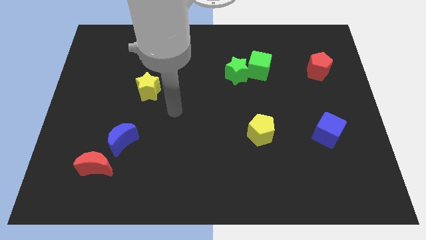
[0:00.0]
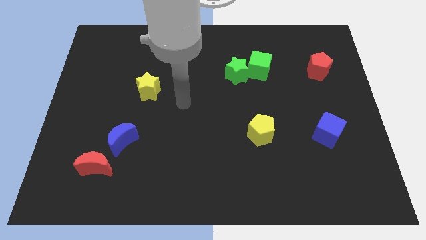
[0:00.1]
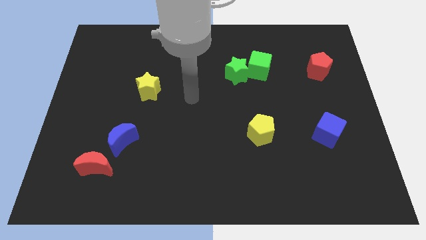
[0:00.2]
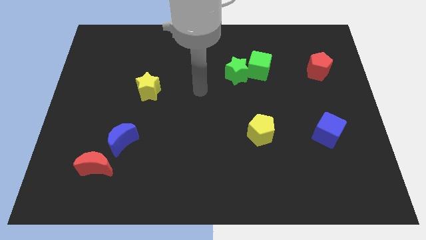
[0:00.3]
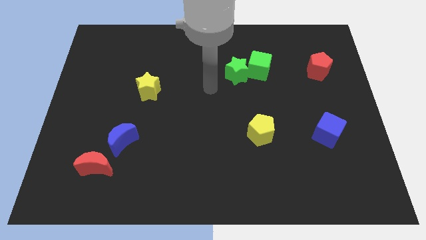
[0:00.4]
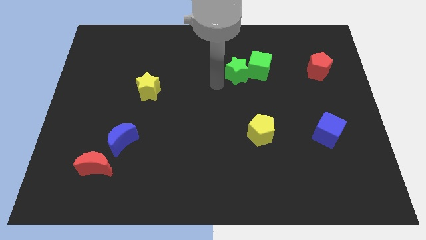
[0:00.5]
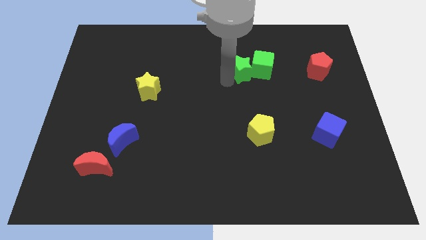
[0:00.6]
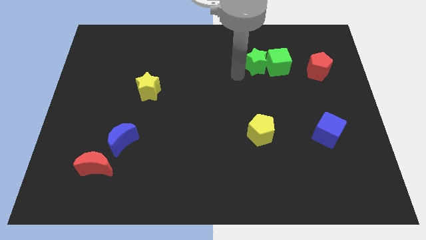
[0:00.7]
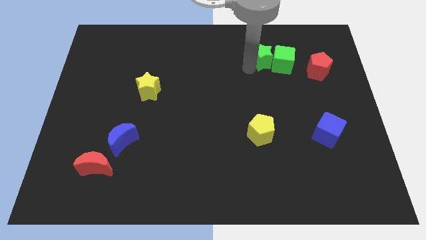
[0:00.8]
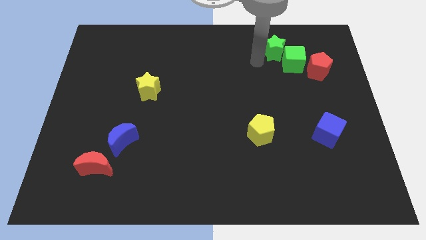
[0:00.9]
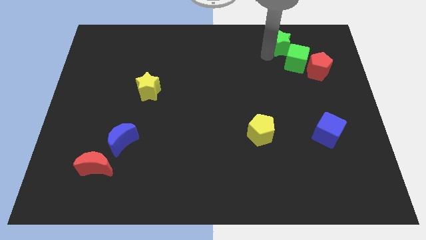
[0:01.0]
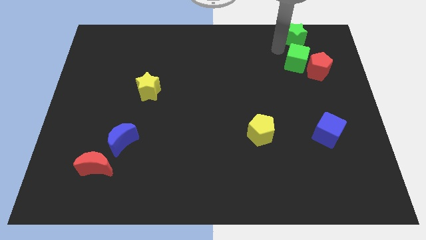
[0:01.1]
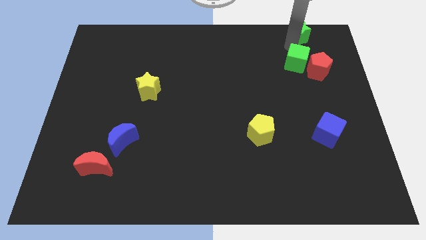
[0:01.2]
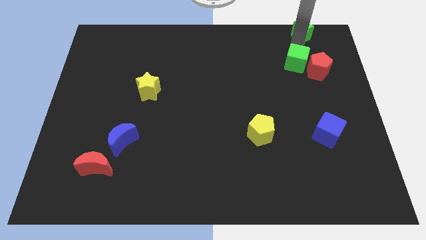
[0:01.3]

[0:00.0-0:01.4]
pull the green cube apart from the green star

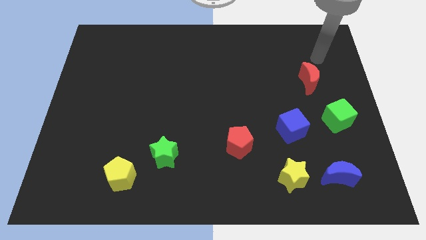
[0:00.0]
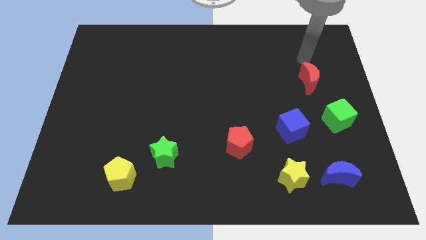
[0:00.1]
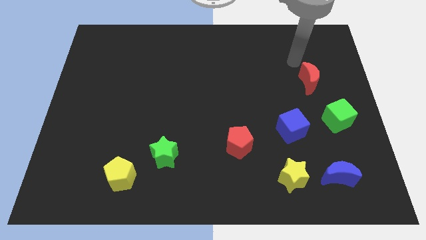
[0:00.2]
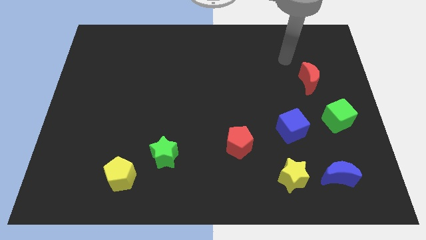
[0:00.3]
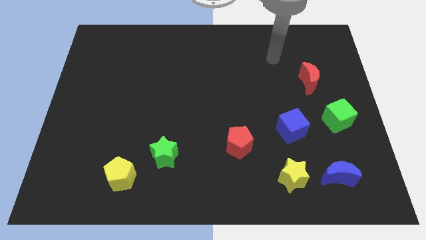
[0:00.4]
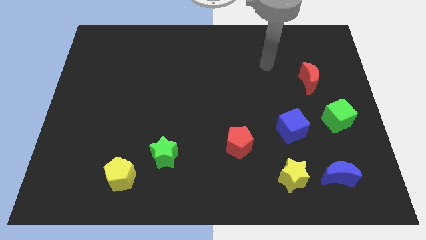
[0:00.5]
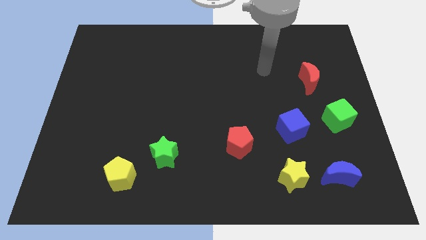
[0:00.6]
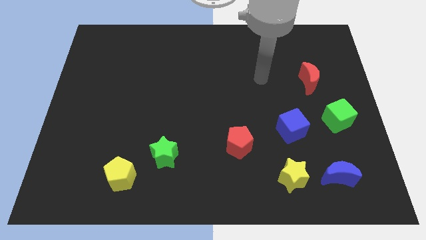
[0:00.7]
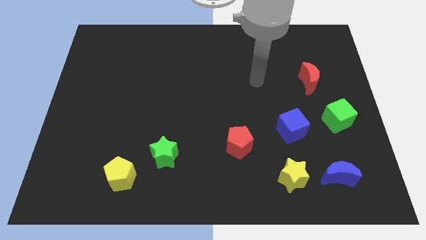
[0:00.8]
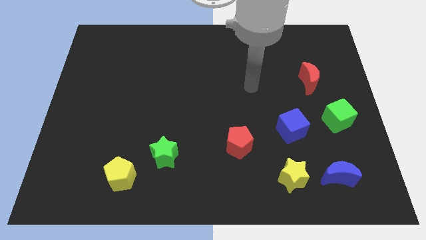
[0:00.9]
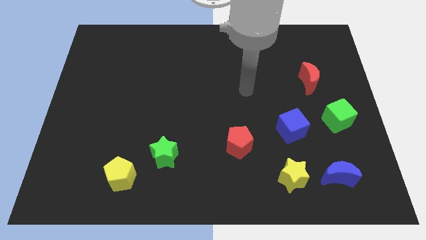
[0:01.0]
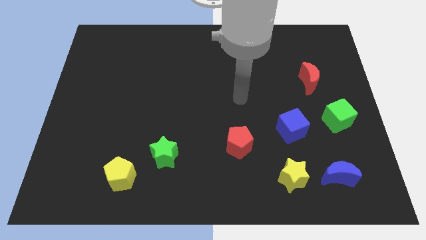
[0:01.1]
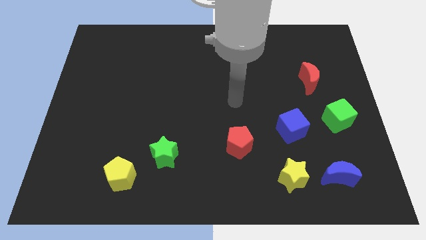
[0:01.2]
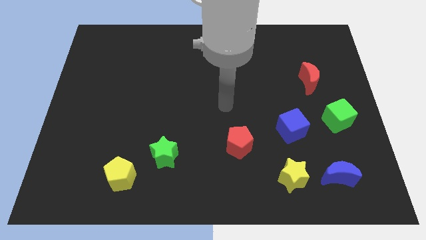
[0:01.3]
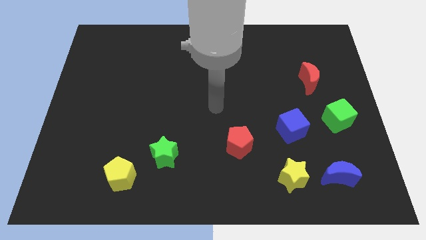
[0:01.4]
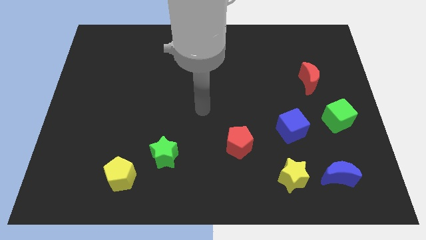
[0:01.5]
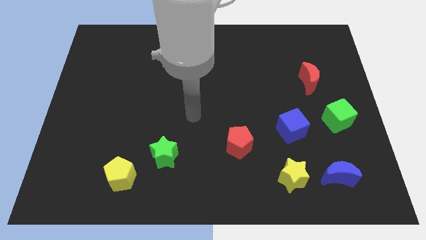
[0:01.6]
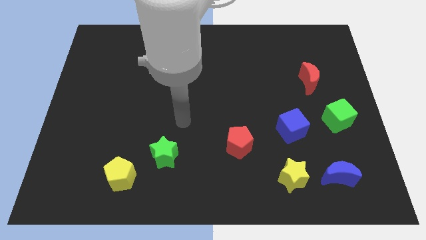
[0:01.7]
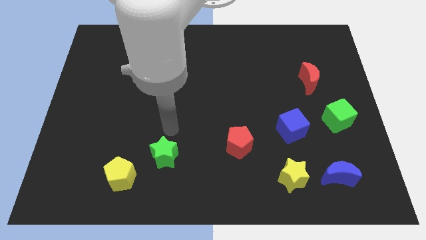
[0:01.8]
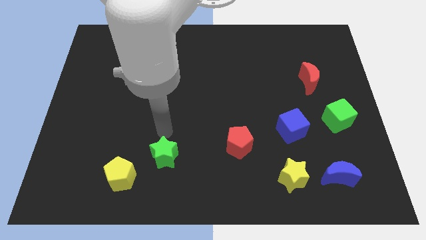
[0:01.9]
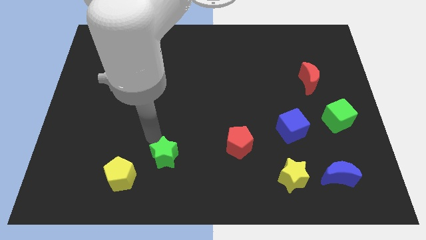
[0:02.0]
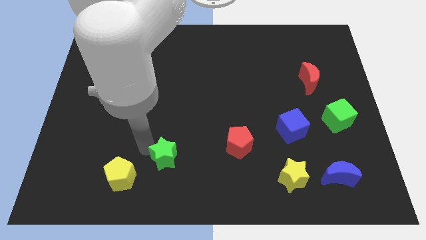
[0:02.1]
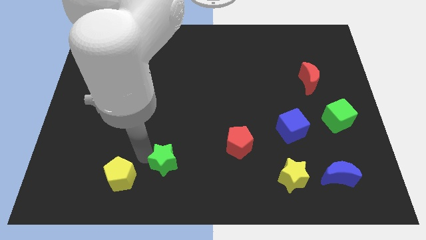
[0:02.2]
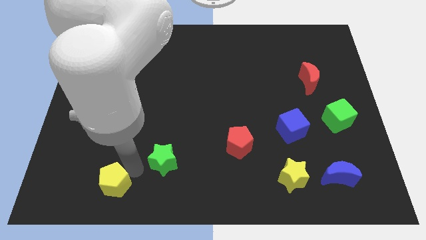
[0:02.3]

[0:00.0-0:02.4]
separate the green star from the yellow pentagon

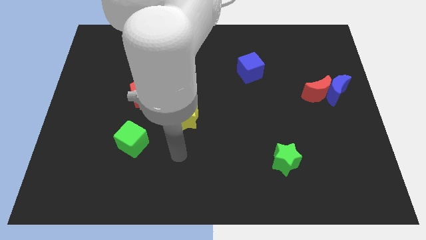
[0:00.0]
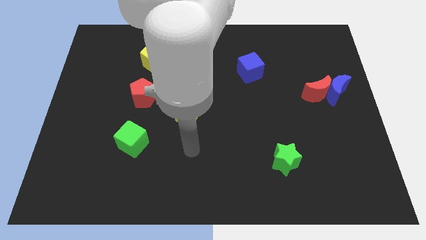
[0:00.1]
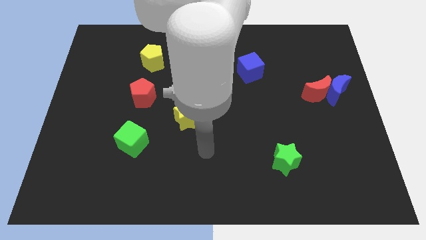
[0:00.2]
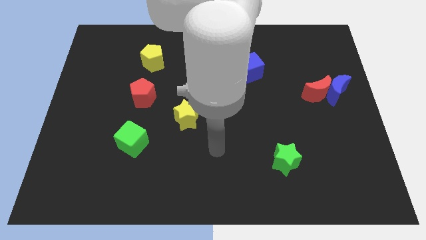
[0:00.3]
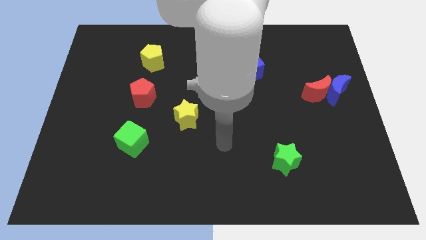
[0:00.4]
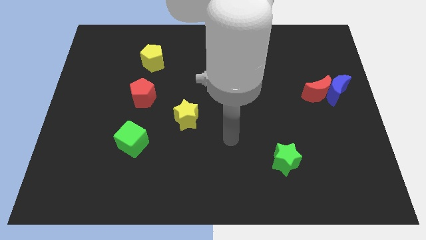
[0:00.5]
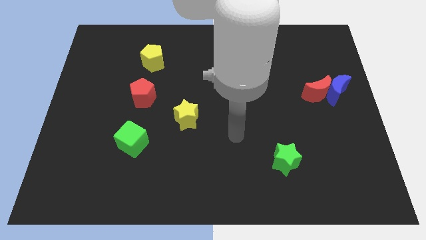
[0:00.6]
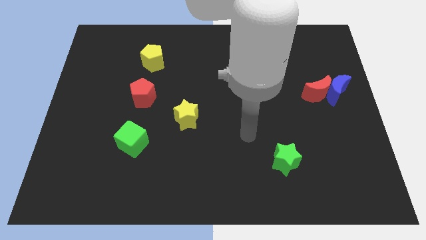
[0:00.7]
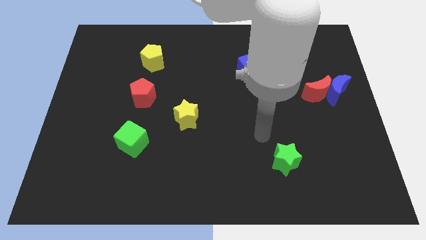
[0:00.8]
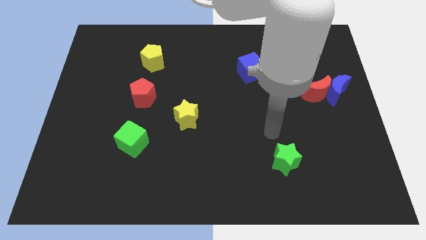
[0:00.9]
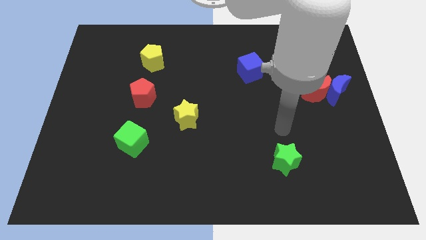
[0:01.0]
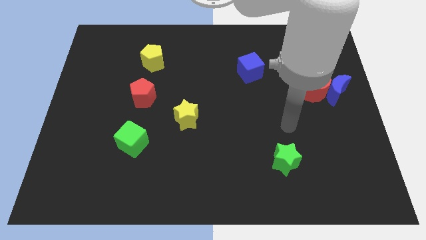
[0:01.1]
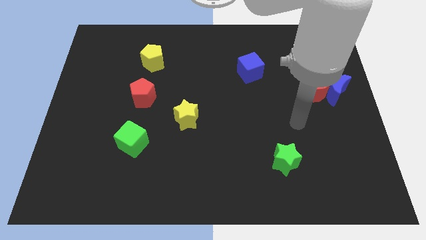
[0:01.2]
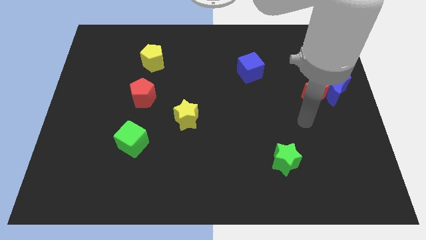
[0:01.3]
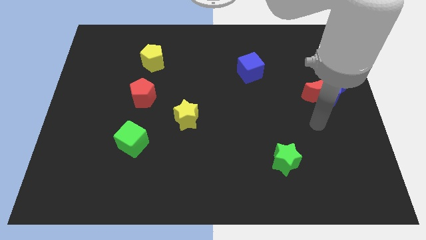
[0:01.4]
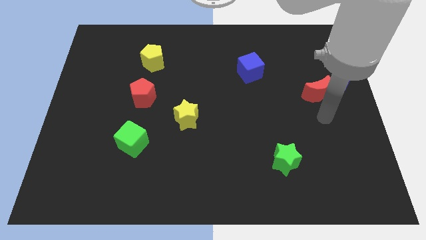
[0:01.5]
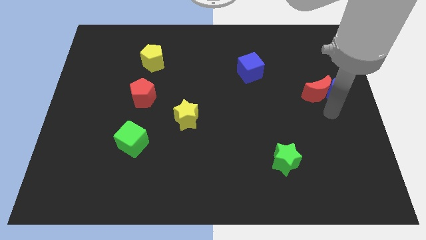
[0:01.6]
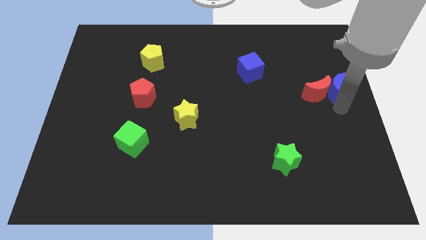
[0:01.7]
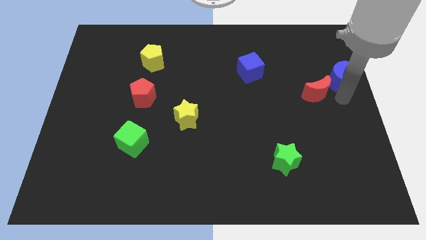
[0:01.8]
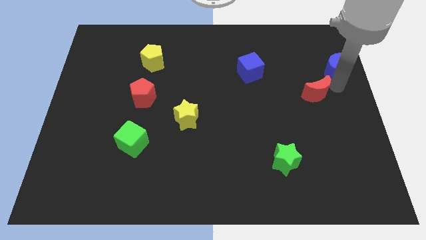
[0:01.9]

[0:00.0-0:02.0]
separate the red moon from the blue moon

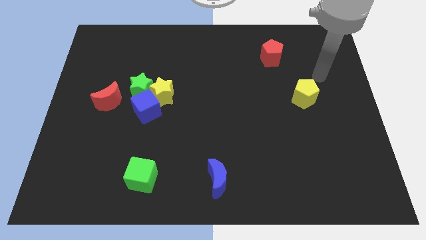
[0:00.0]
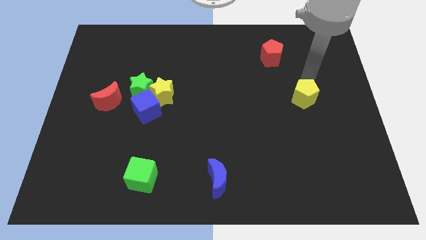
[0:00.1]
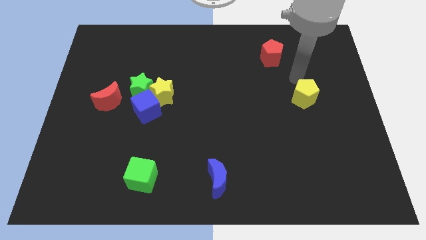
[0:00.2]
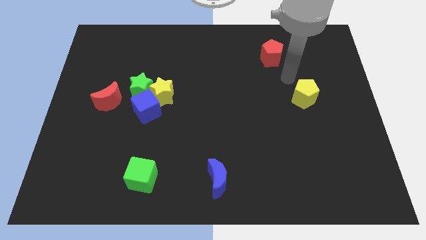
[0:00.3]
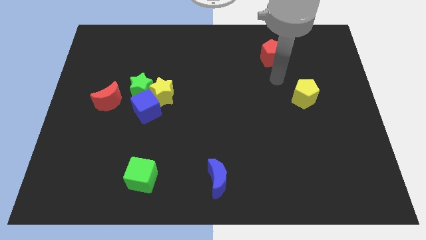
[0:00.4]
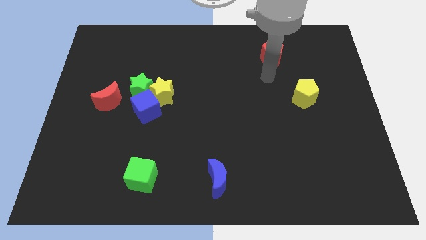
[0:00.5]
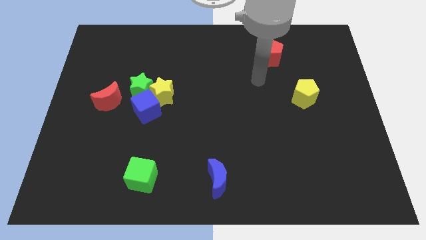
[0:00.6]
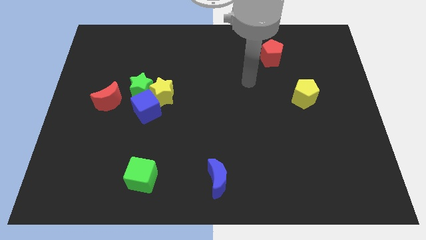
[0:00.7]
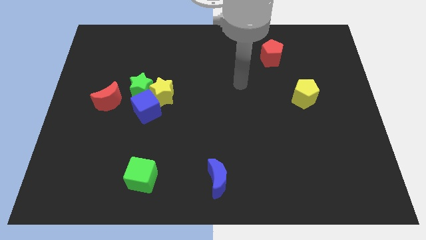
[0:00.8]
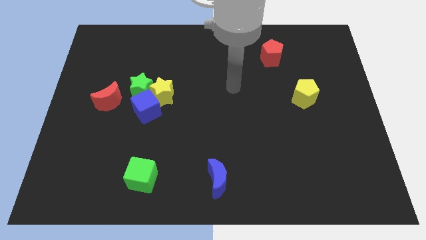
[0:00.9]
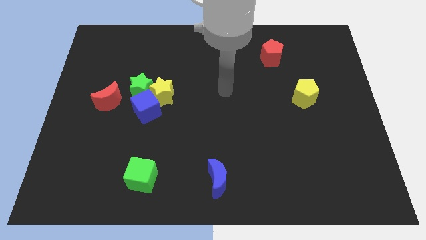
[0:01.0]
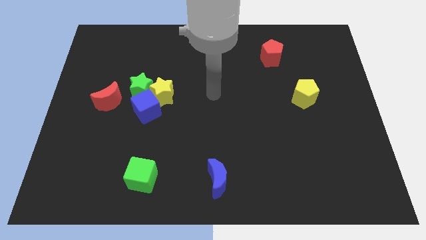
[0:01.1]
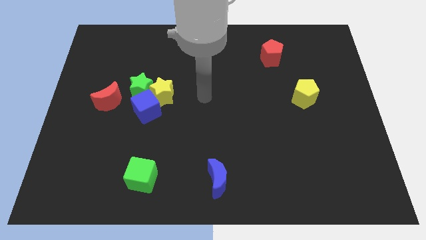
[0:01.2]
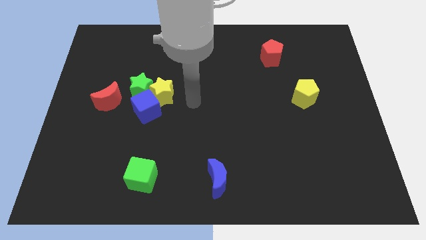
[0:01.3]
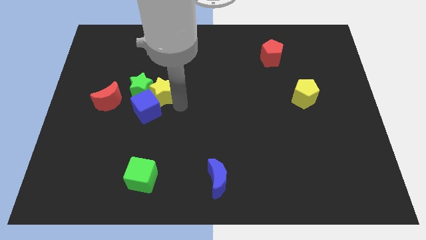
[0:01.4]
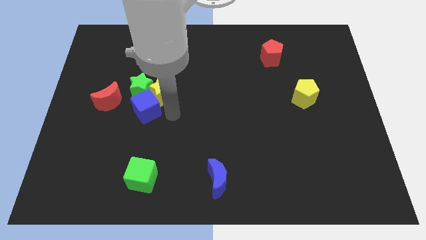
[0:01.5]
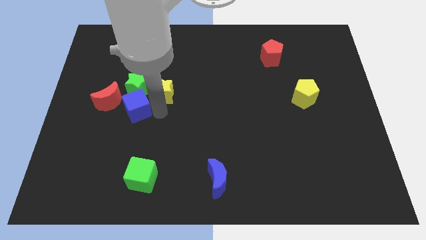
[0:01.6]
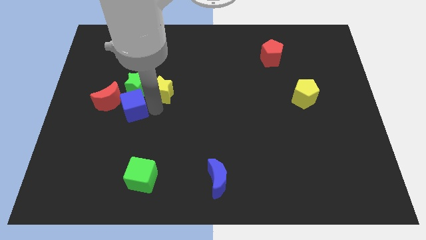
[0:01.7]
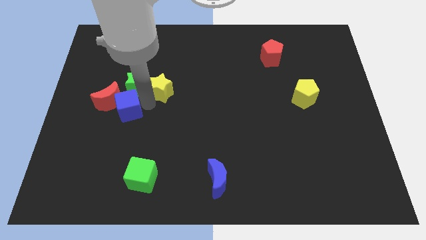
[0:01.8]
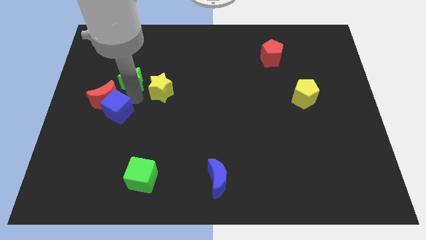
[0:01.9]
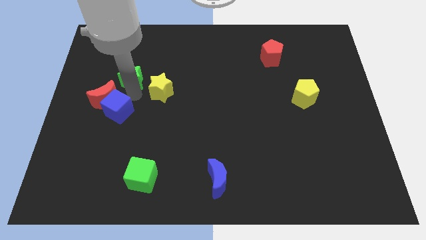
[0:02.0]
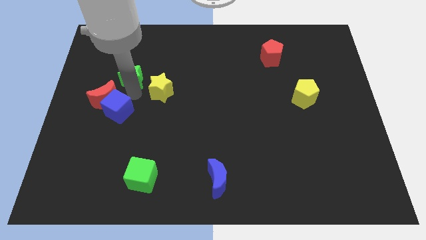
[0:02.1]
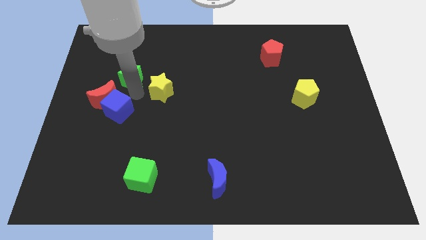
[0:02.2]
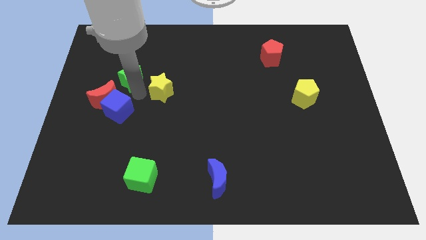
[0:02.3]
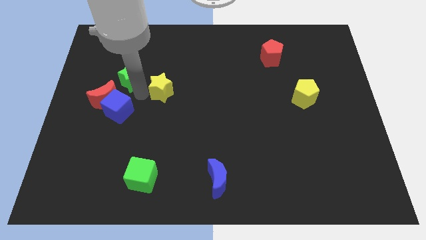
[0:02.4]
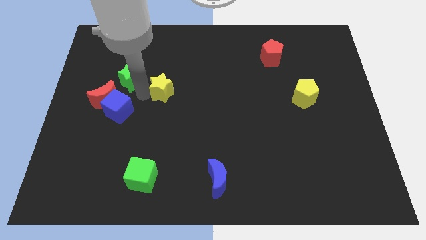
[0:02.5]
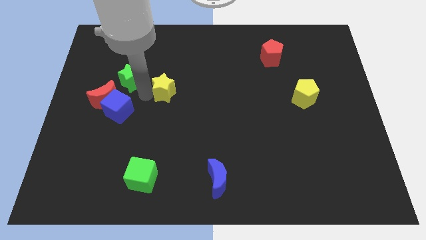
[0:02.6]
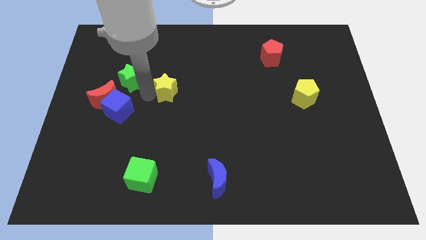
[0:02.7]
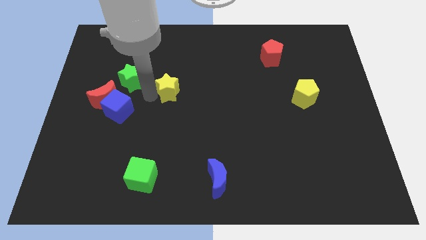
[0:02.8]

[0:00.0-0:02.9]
move the yellow star away from the green star and blue cube

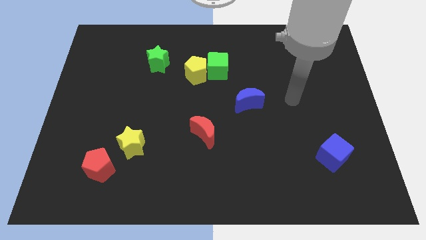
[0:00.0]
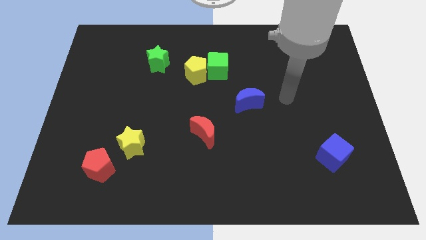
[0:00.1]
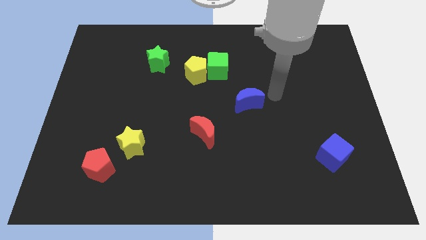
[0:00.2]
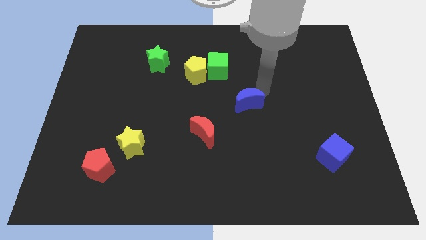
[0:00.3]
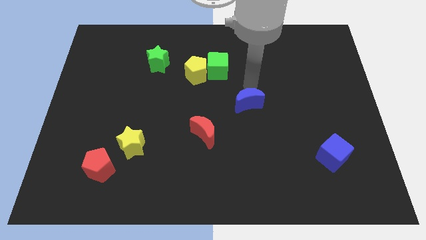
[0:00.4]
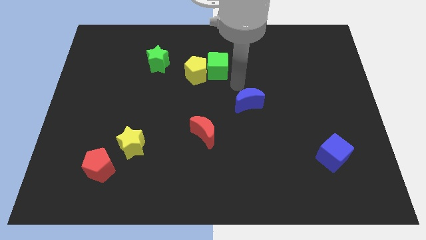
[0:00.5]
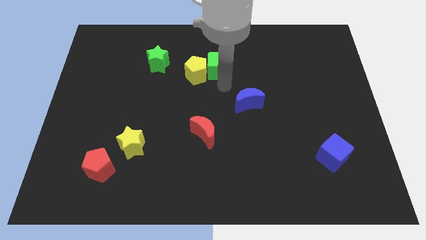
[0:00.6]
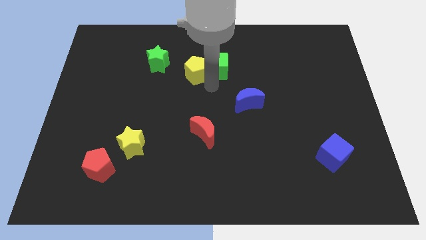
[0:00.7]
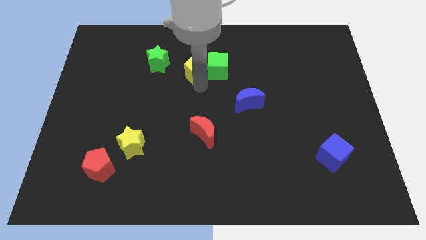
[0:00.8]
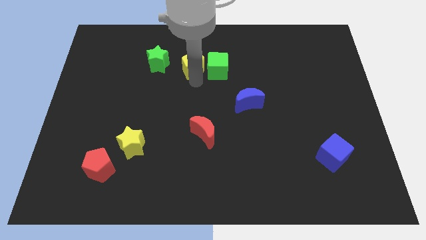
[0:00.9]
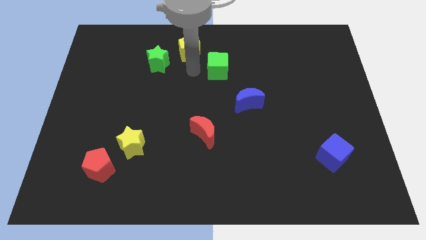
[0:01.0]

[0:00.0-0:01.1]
separate the green cube from the yellow pentagon
